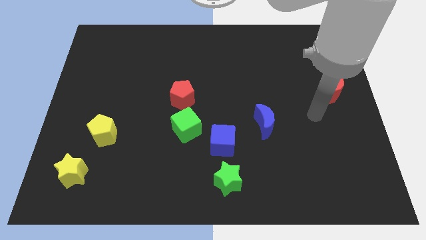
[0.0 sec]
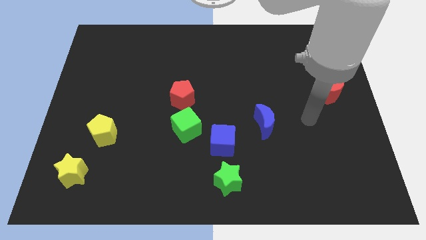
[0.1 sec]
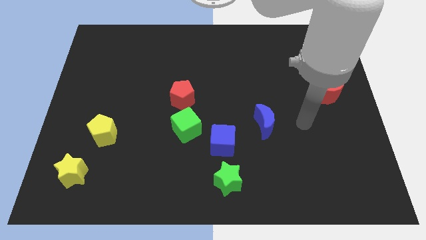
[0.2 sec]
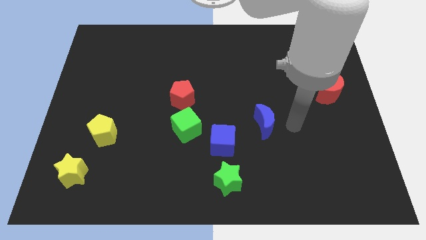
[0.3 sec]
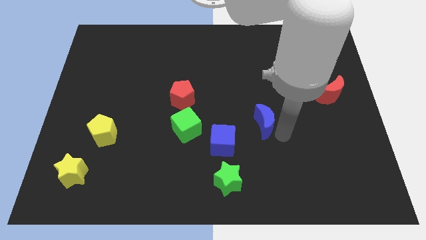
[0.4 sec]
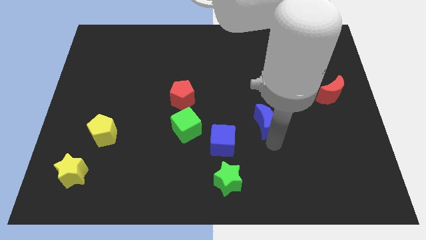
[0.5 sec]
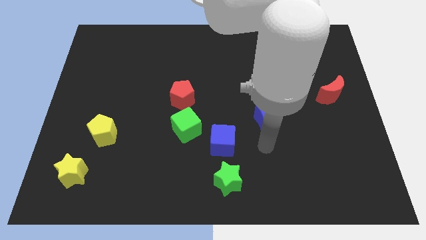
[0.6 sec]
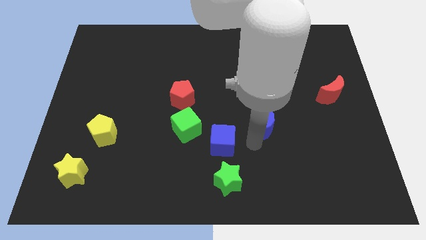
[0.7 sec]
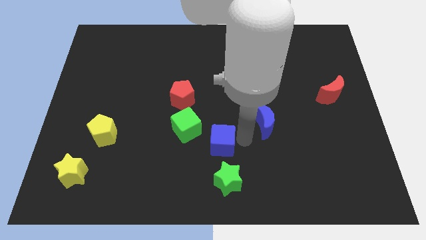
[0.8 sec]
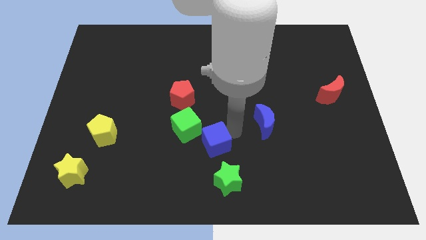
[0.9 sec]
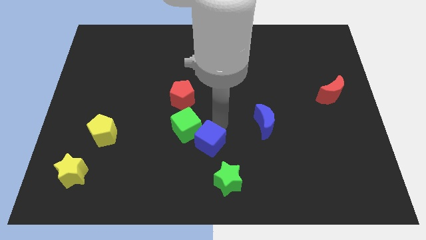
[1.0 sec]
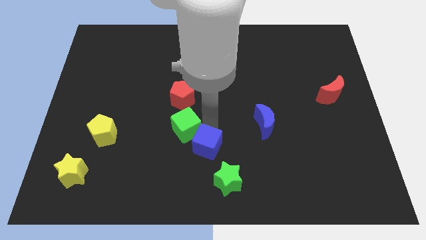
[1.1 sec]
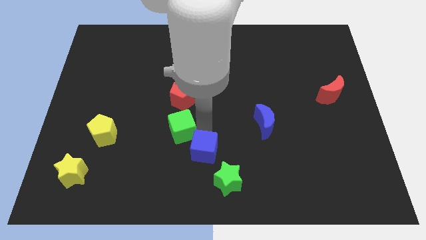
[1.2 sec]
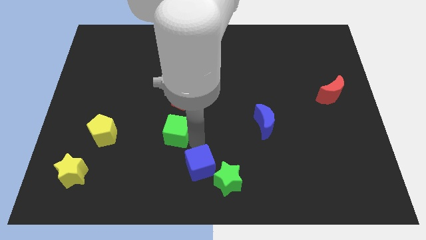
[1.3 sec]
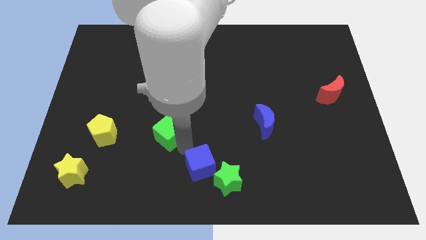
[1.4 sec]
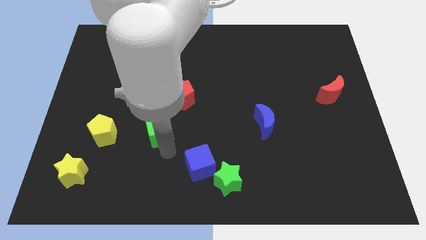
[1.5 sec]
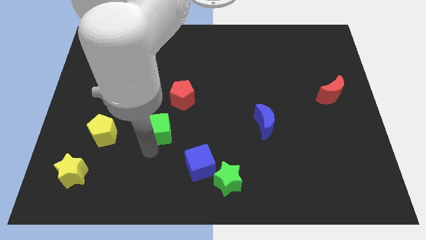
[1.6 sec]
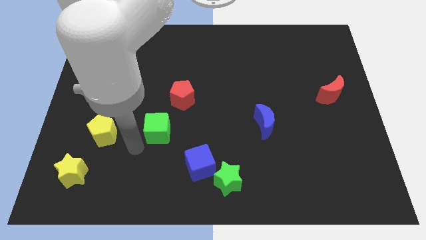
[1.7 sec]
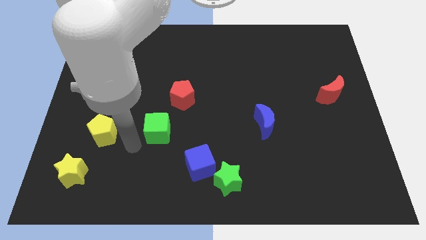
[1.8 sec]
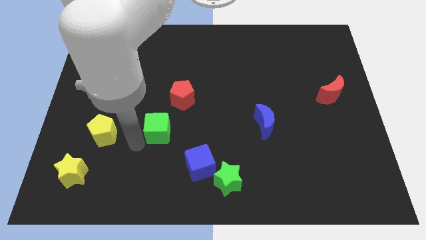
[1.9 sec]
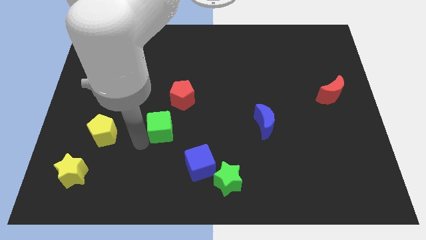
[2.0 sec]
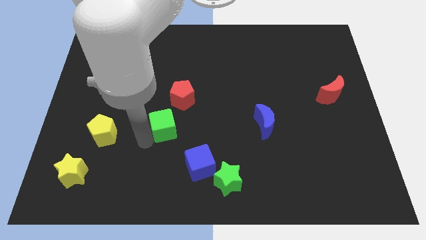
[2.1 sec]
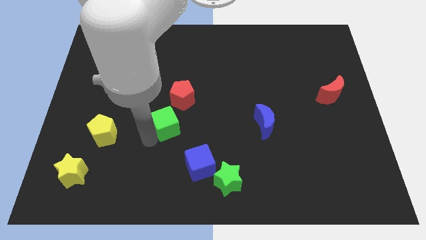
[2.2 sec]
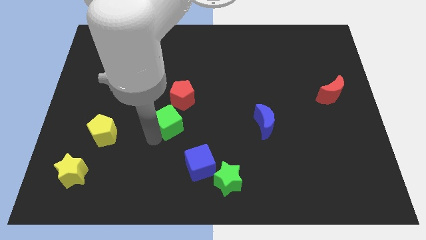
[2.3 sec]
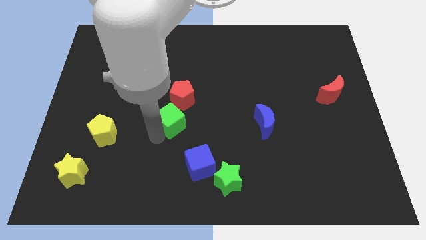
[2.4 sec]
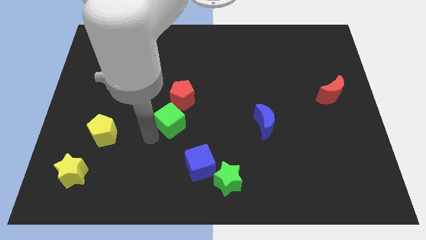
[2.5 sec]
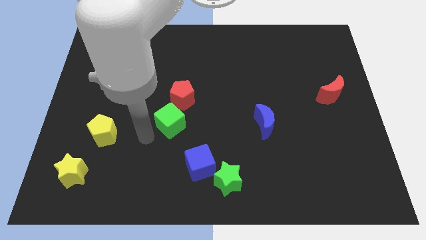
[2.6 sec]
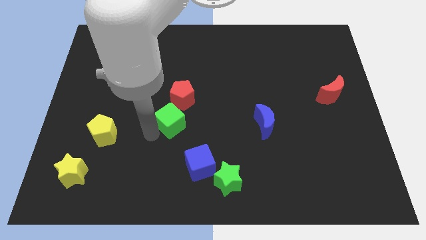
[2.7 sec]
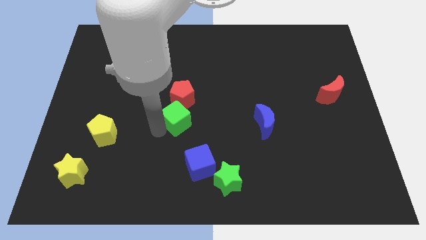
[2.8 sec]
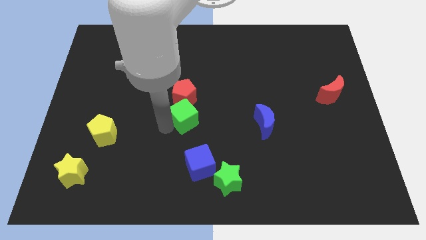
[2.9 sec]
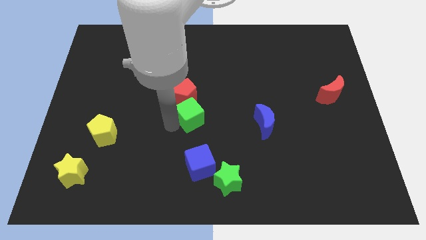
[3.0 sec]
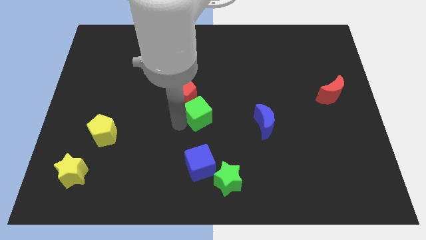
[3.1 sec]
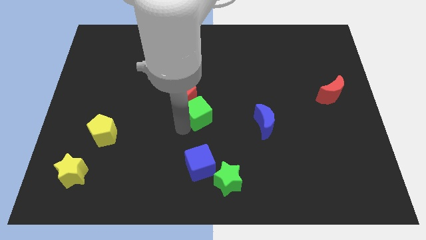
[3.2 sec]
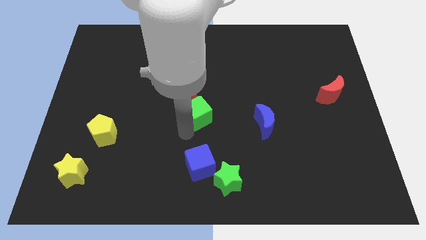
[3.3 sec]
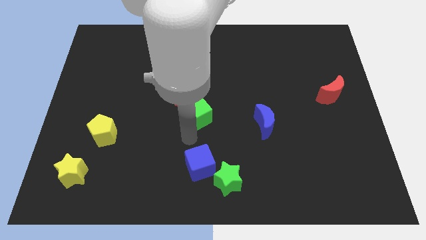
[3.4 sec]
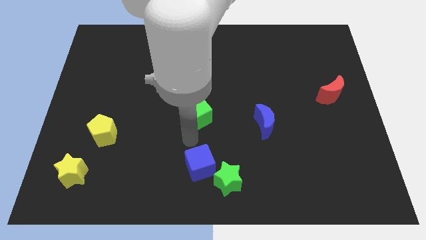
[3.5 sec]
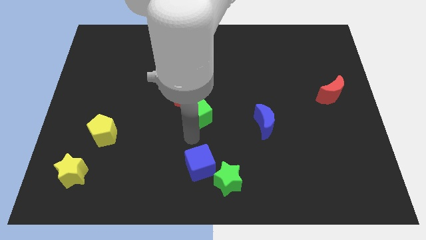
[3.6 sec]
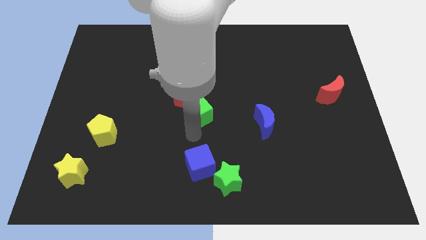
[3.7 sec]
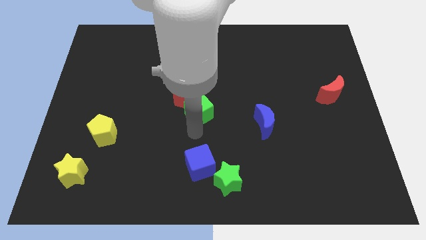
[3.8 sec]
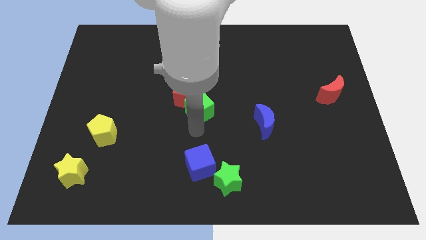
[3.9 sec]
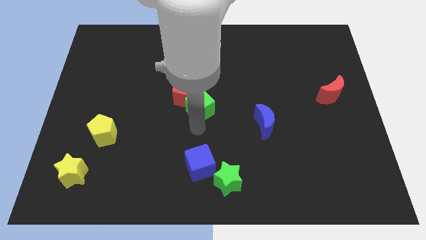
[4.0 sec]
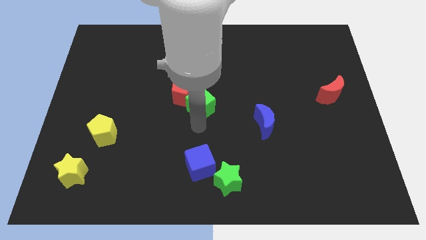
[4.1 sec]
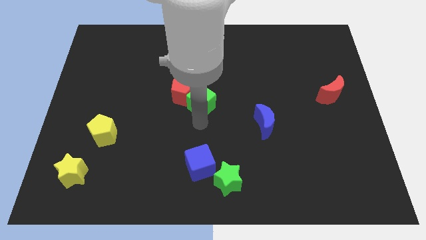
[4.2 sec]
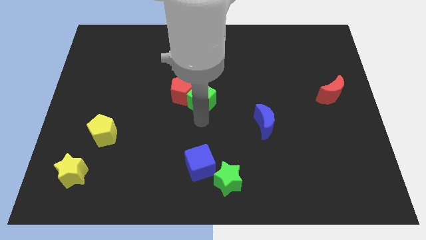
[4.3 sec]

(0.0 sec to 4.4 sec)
move the green cube a little bit up

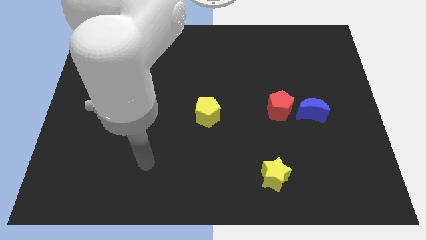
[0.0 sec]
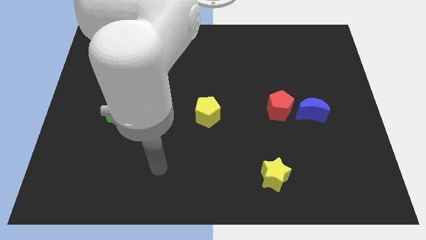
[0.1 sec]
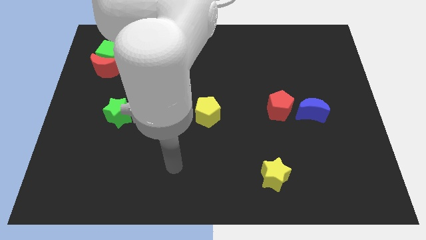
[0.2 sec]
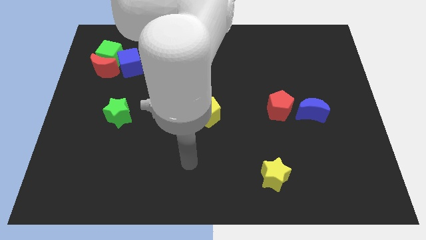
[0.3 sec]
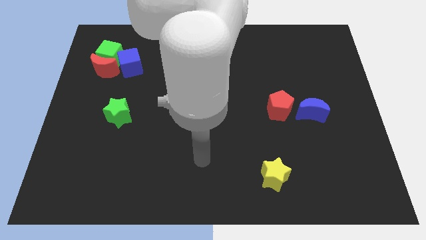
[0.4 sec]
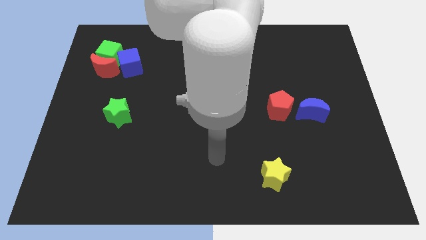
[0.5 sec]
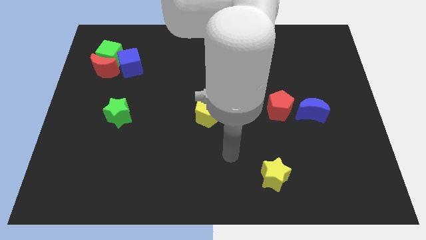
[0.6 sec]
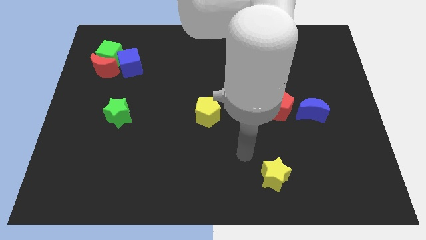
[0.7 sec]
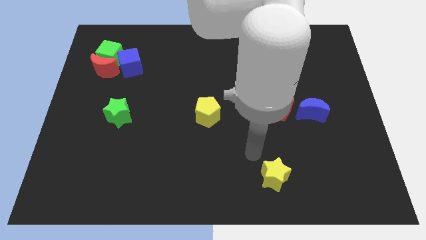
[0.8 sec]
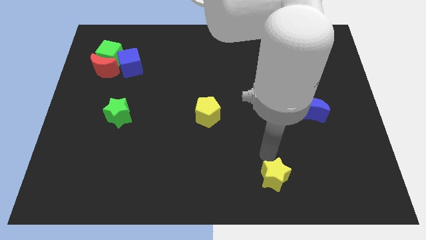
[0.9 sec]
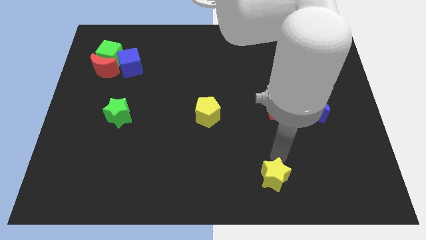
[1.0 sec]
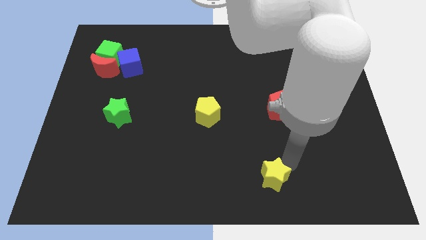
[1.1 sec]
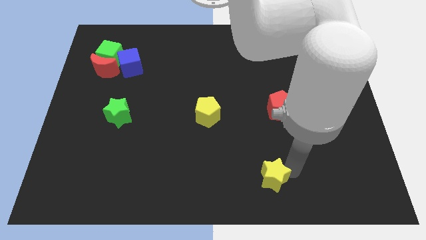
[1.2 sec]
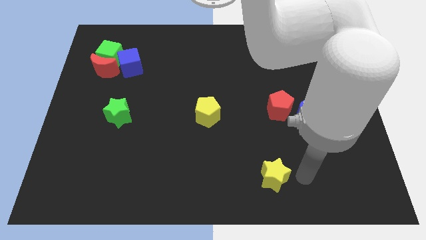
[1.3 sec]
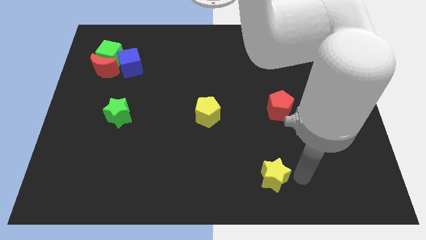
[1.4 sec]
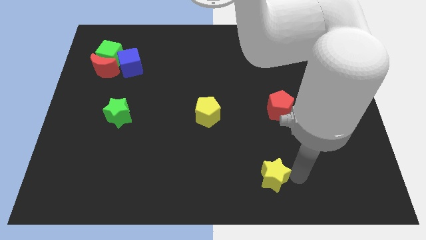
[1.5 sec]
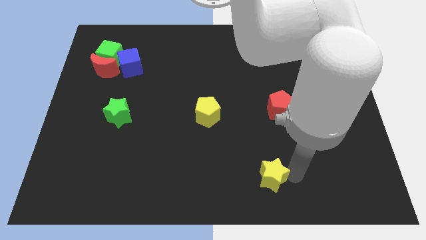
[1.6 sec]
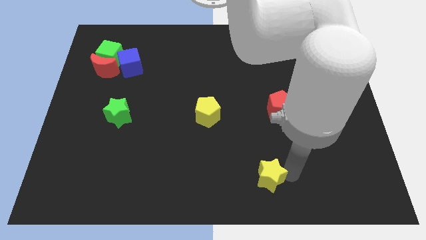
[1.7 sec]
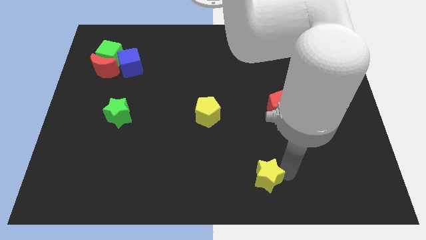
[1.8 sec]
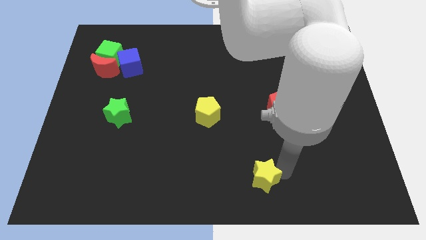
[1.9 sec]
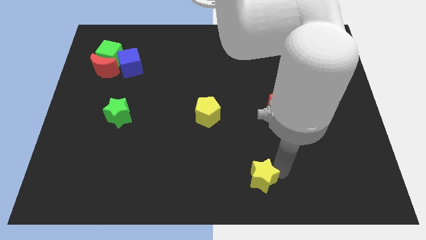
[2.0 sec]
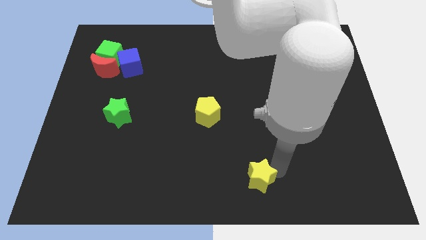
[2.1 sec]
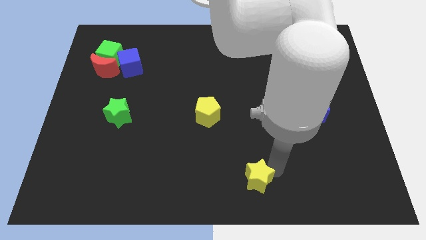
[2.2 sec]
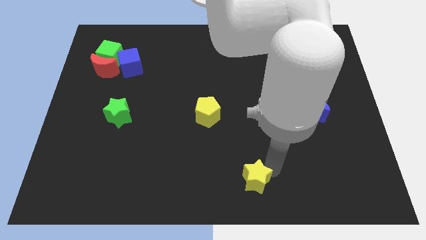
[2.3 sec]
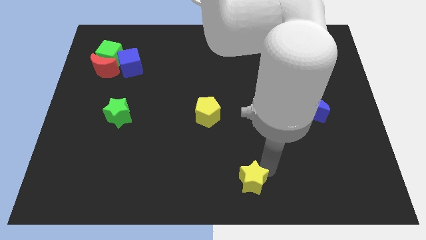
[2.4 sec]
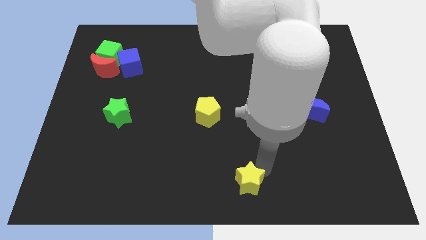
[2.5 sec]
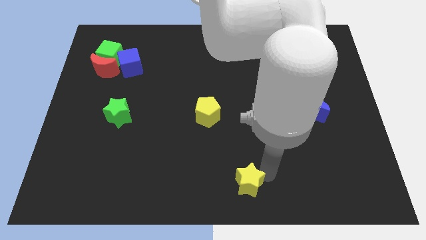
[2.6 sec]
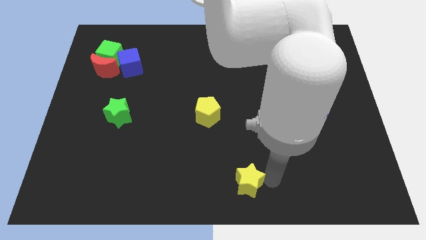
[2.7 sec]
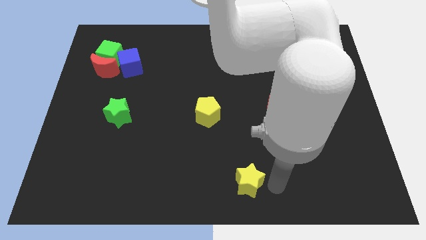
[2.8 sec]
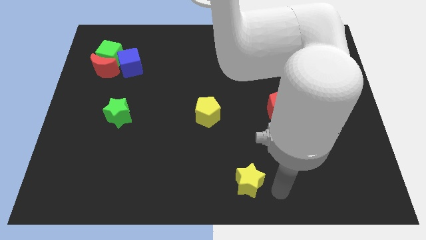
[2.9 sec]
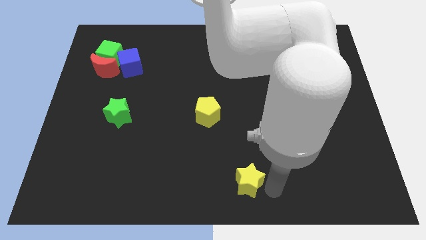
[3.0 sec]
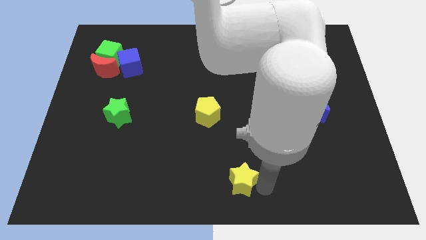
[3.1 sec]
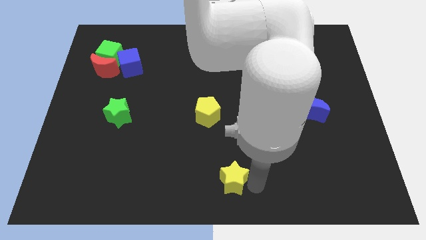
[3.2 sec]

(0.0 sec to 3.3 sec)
slightly push the yellow star left

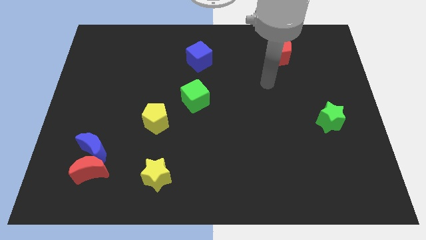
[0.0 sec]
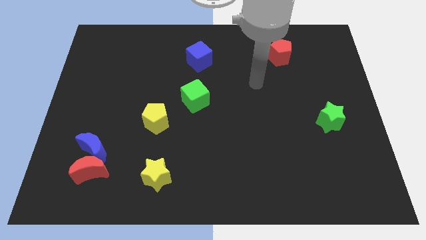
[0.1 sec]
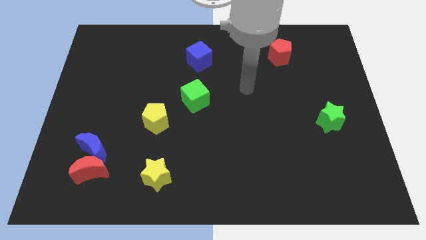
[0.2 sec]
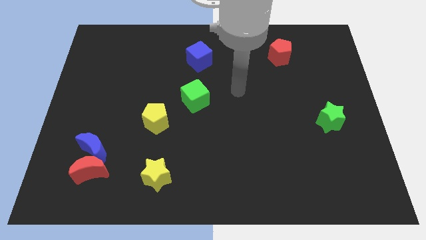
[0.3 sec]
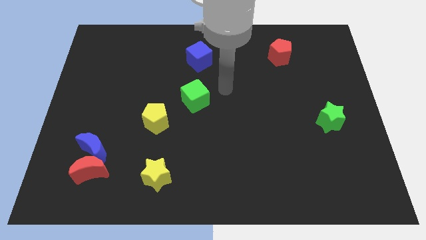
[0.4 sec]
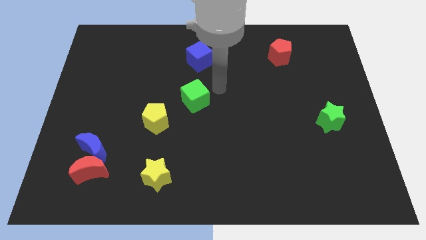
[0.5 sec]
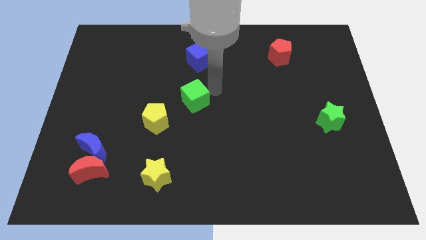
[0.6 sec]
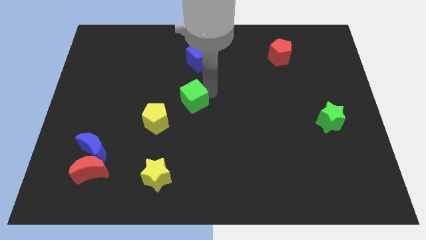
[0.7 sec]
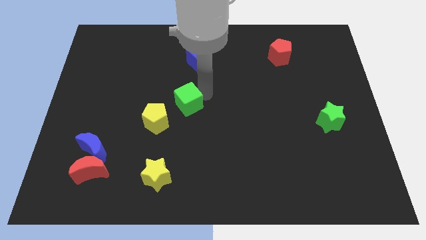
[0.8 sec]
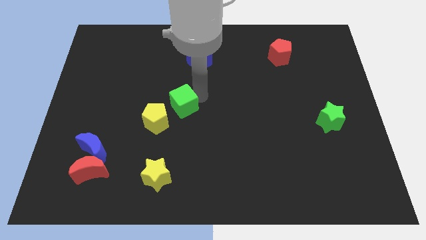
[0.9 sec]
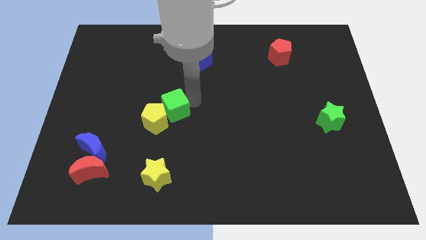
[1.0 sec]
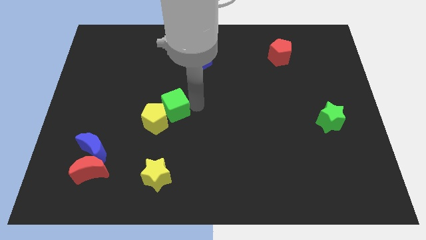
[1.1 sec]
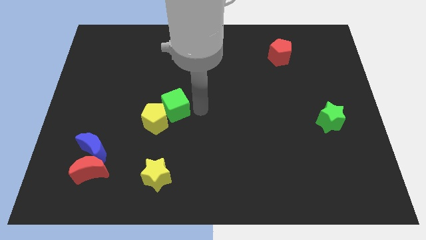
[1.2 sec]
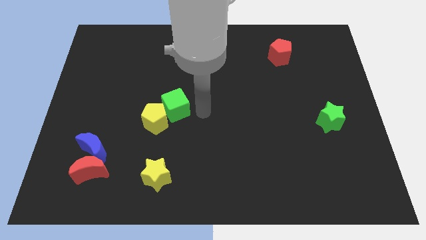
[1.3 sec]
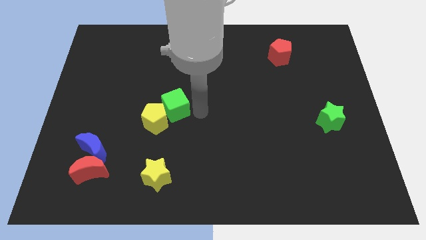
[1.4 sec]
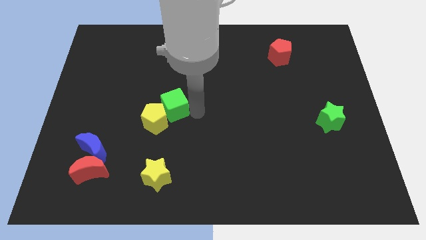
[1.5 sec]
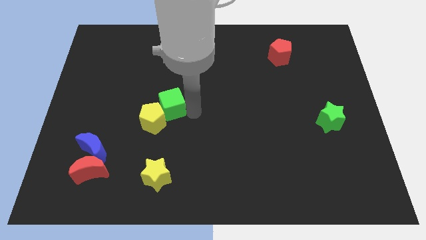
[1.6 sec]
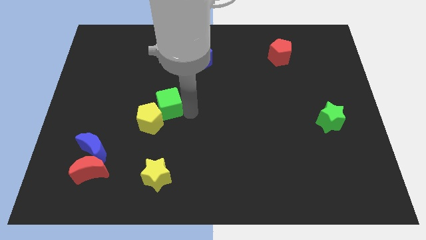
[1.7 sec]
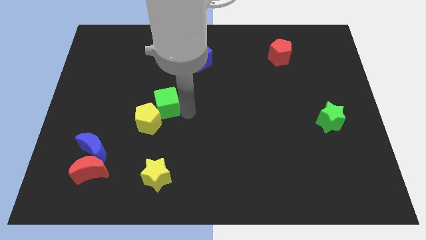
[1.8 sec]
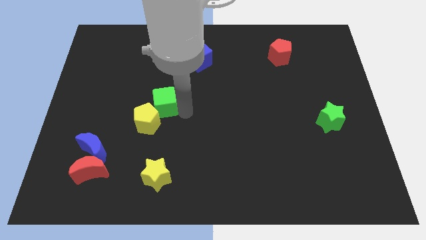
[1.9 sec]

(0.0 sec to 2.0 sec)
slightly push the green cube to the left
